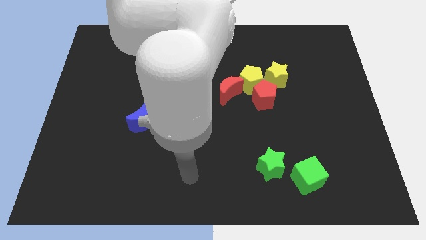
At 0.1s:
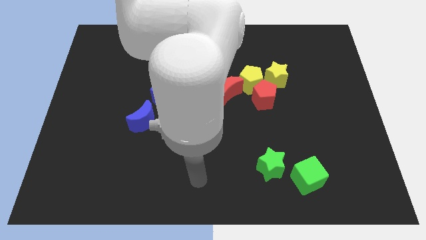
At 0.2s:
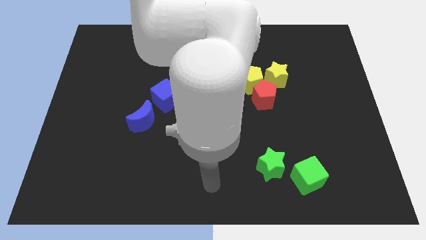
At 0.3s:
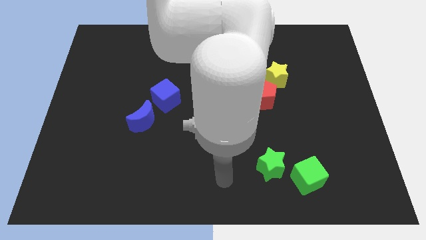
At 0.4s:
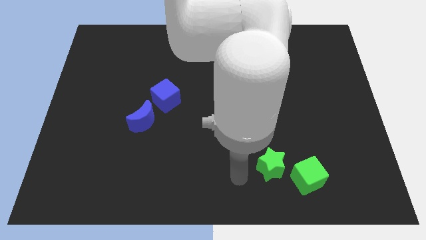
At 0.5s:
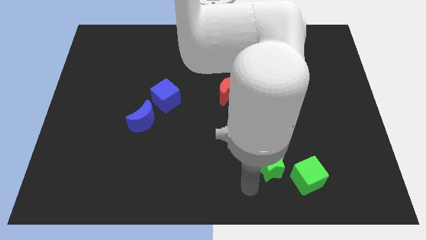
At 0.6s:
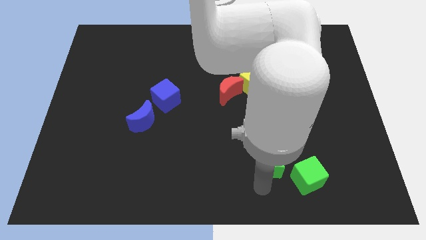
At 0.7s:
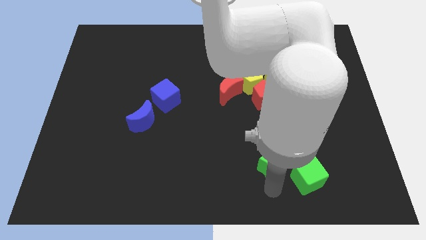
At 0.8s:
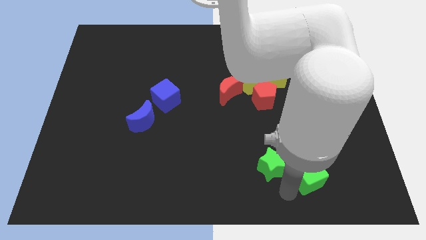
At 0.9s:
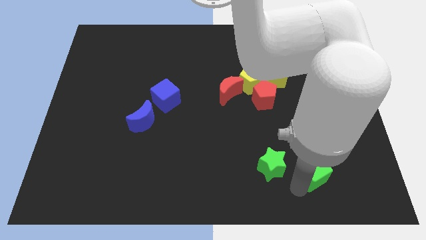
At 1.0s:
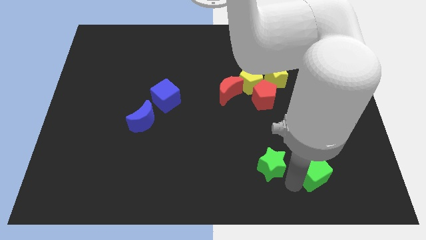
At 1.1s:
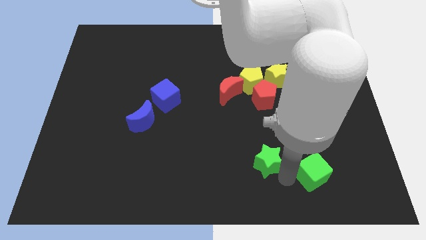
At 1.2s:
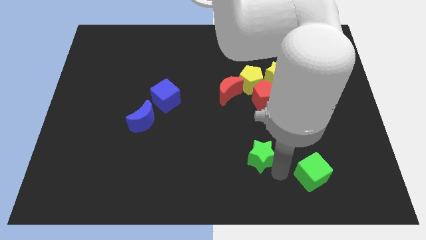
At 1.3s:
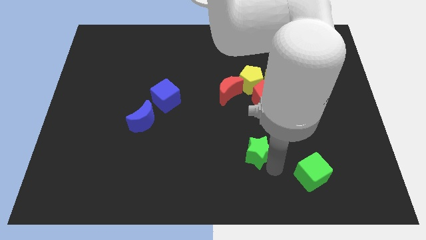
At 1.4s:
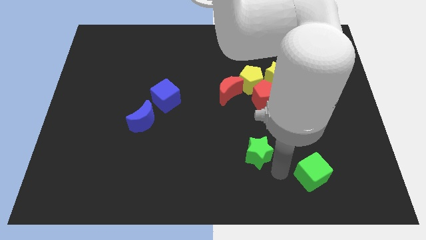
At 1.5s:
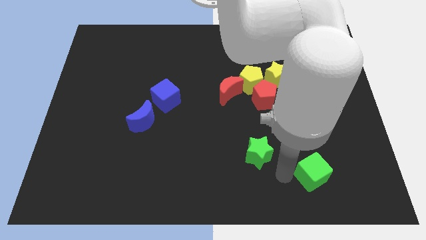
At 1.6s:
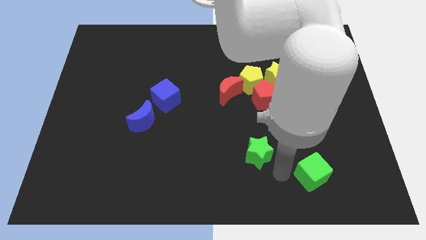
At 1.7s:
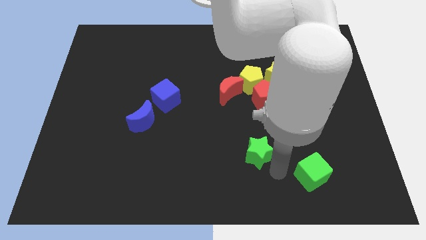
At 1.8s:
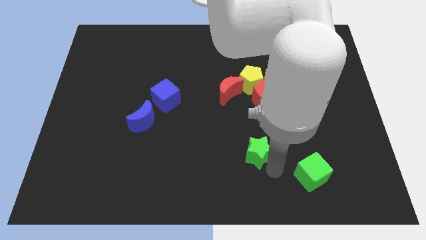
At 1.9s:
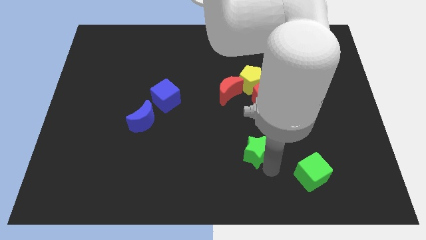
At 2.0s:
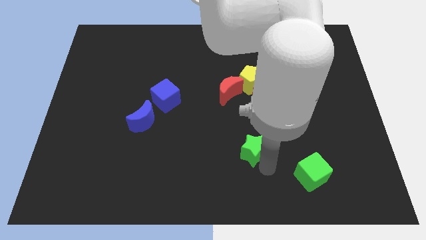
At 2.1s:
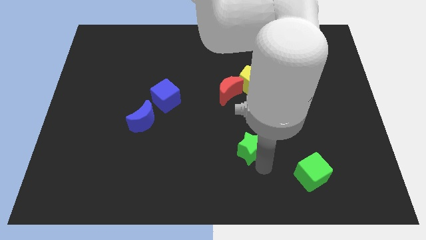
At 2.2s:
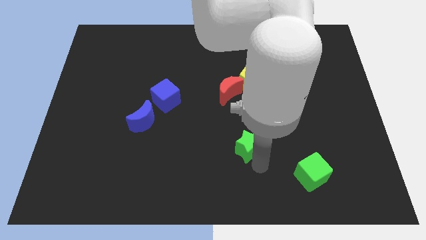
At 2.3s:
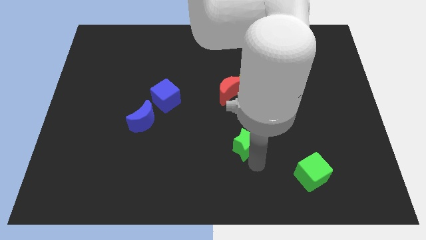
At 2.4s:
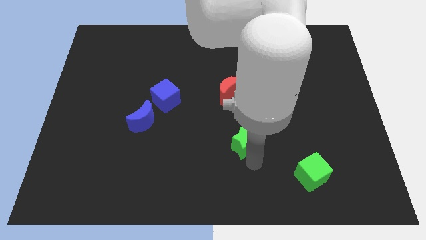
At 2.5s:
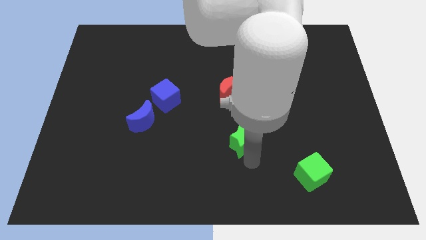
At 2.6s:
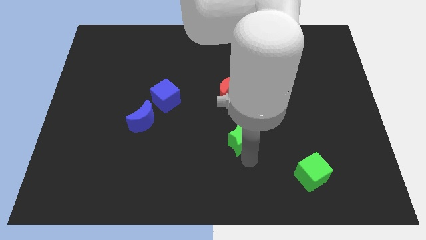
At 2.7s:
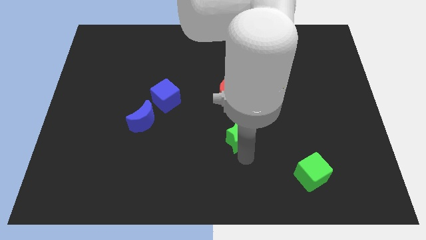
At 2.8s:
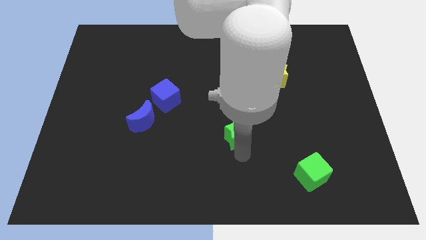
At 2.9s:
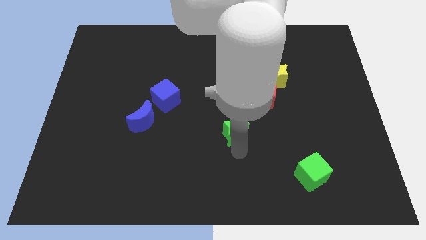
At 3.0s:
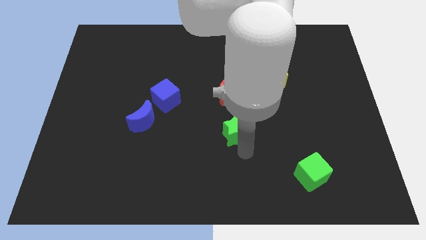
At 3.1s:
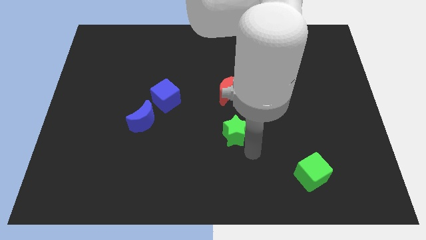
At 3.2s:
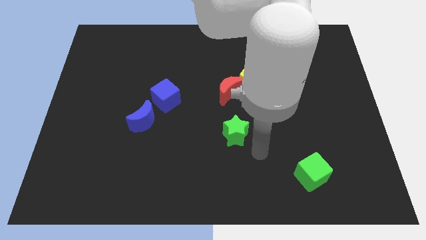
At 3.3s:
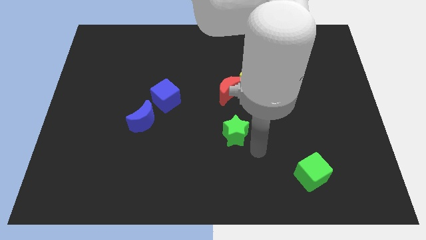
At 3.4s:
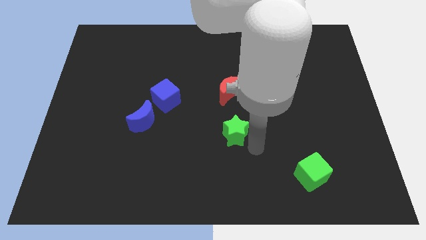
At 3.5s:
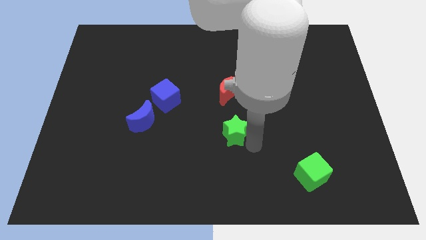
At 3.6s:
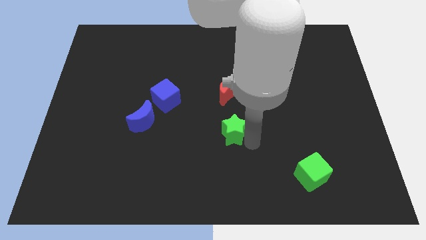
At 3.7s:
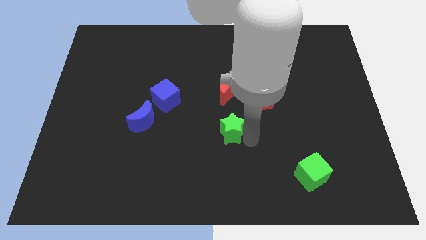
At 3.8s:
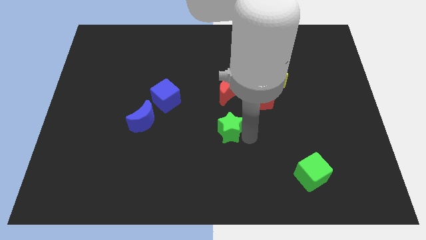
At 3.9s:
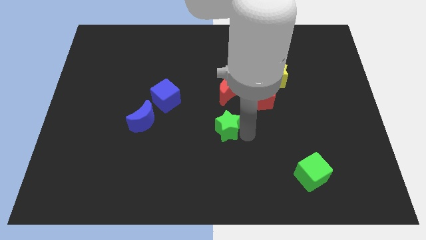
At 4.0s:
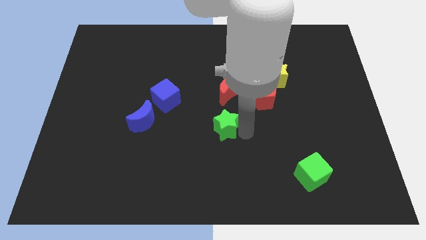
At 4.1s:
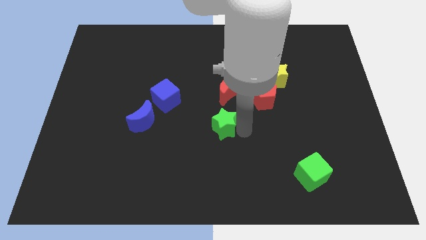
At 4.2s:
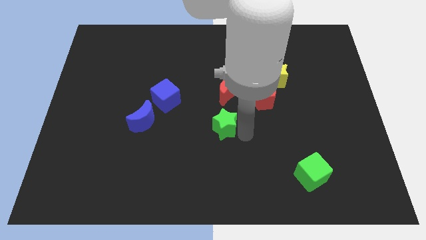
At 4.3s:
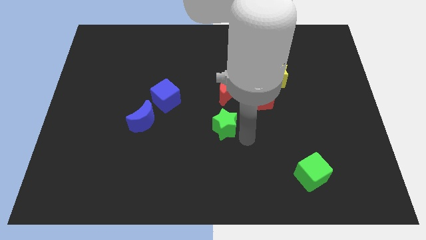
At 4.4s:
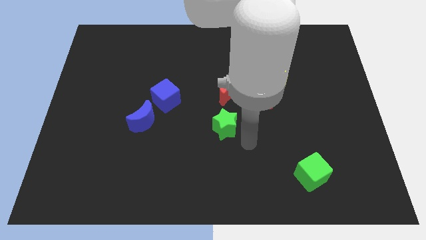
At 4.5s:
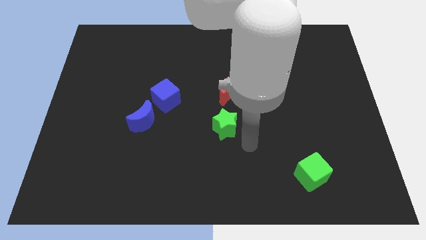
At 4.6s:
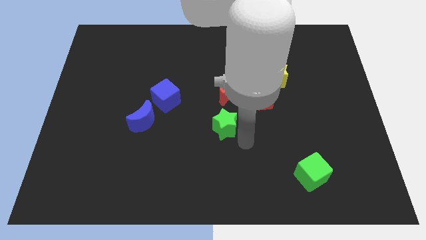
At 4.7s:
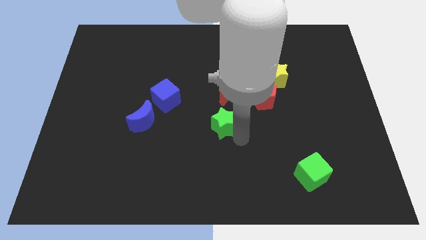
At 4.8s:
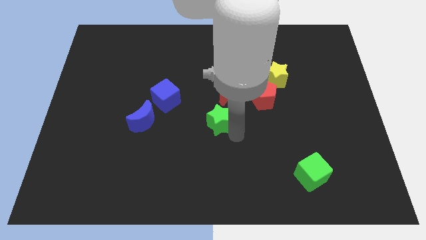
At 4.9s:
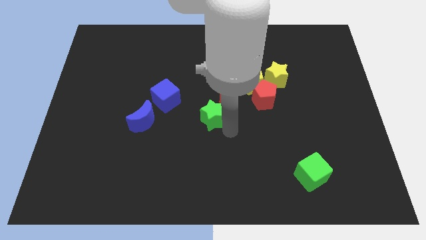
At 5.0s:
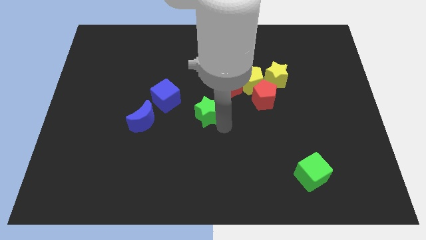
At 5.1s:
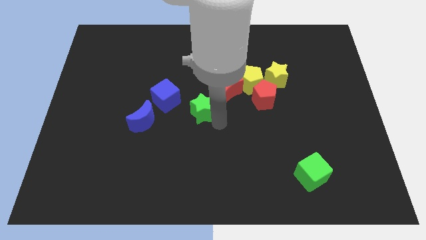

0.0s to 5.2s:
move the green star diagonally upwards and to the left

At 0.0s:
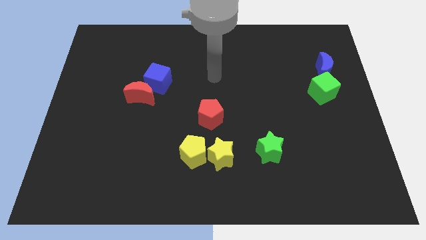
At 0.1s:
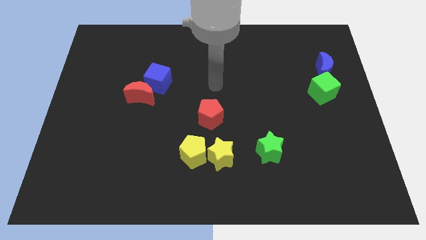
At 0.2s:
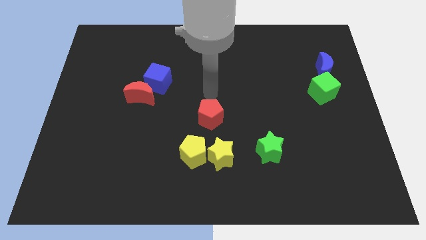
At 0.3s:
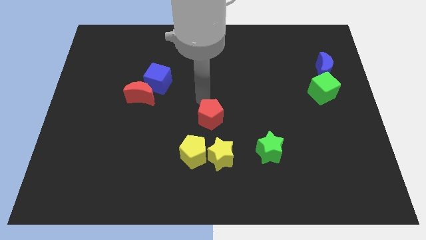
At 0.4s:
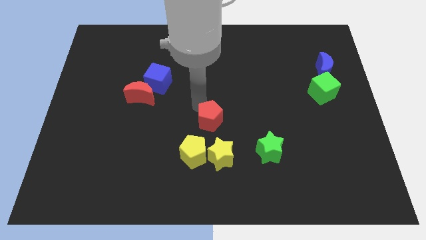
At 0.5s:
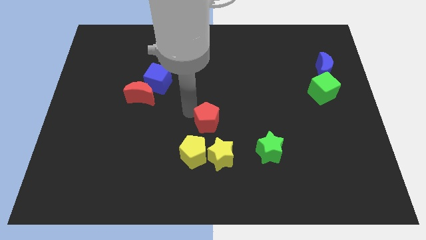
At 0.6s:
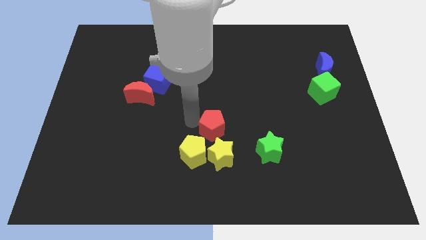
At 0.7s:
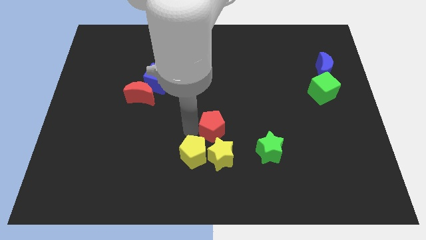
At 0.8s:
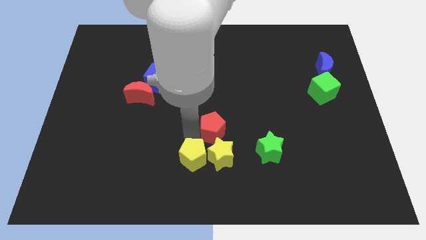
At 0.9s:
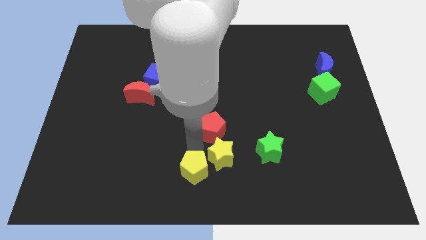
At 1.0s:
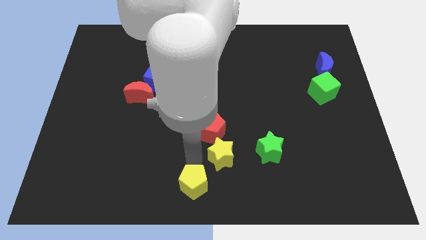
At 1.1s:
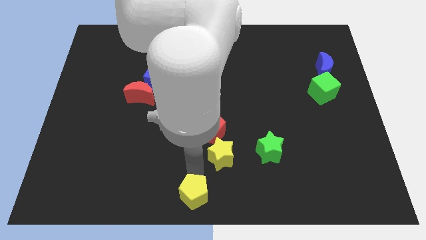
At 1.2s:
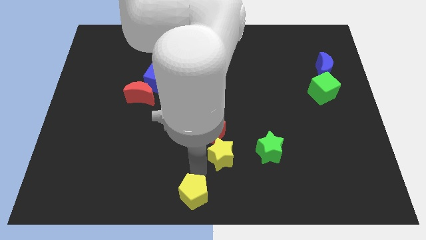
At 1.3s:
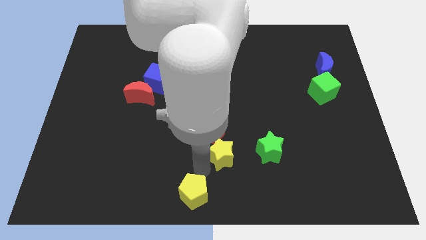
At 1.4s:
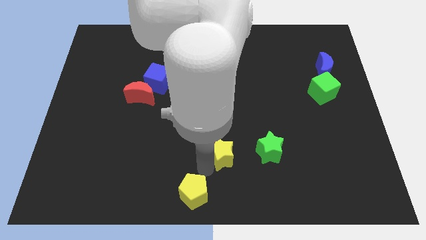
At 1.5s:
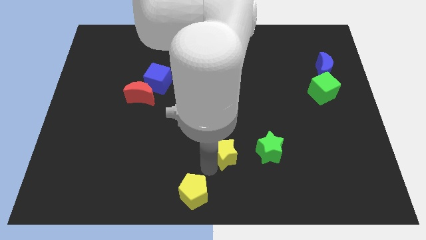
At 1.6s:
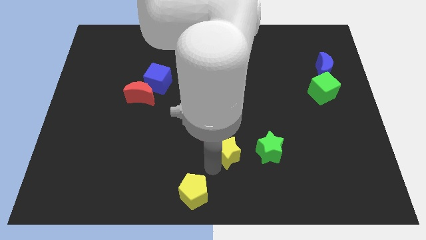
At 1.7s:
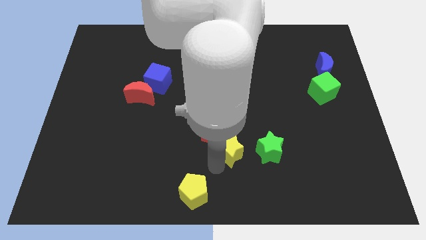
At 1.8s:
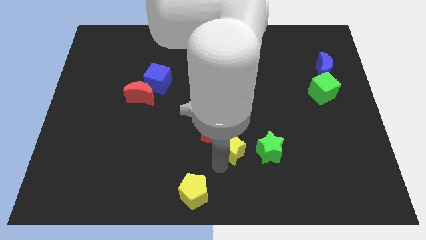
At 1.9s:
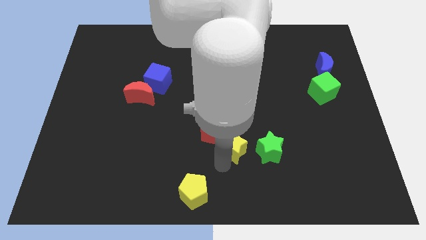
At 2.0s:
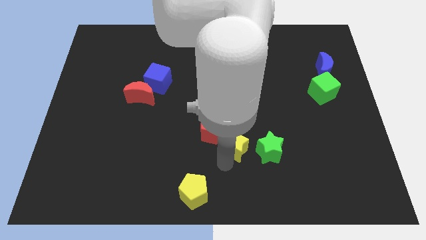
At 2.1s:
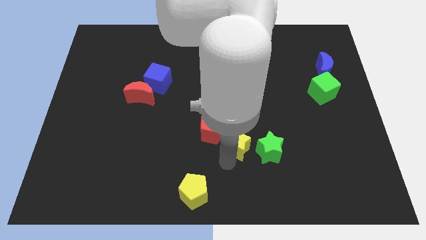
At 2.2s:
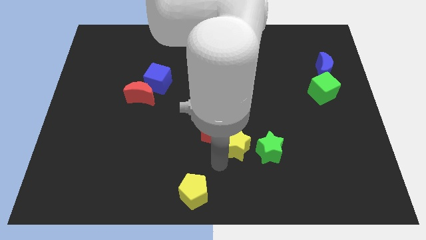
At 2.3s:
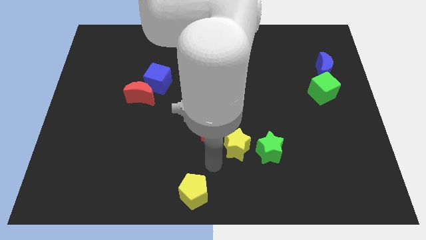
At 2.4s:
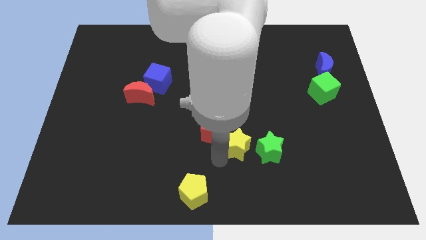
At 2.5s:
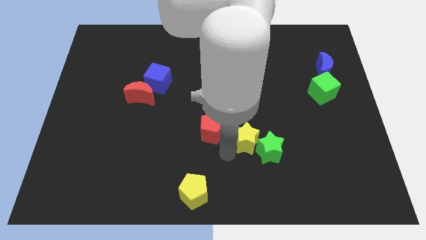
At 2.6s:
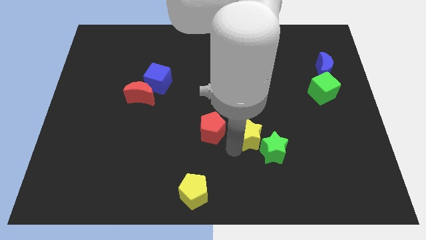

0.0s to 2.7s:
slightly slide the yellow star upwards and right diagonally
